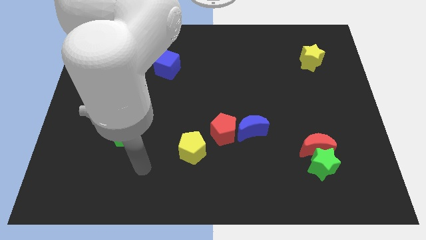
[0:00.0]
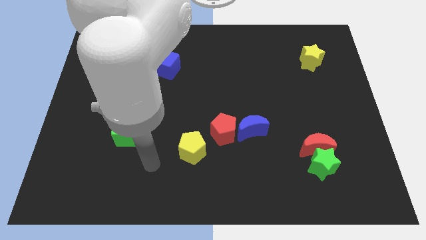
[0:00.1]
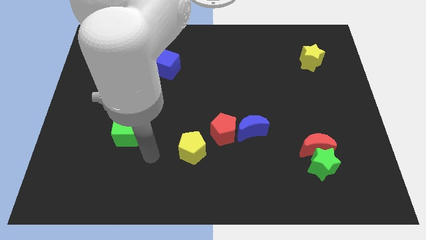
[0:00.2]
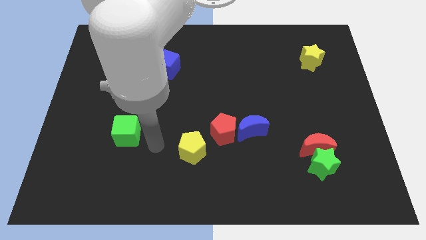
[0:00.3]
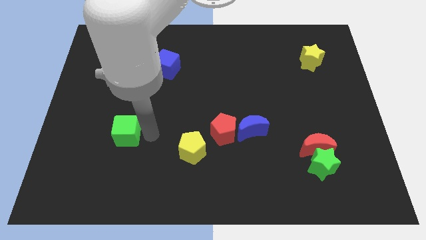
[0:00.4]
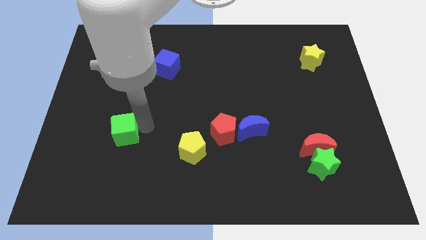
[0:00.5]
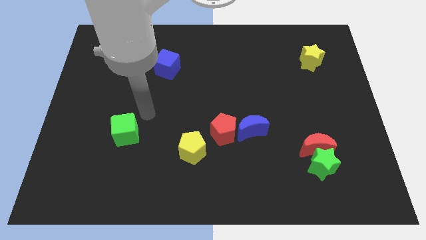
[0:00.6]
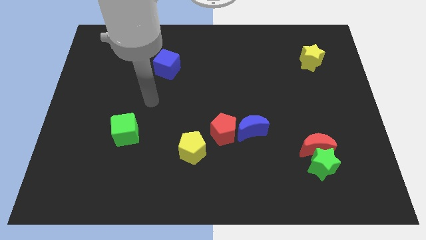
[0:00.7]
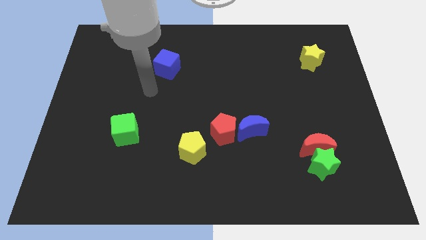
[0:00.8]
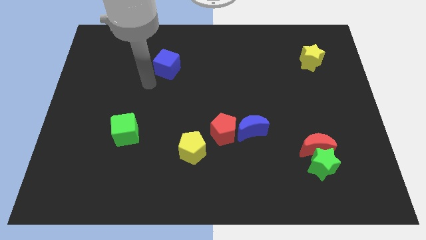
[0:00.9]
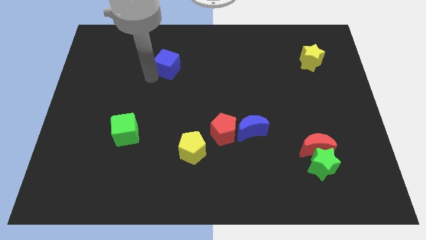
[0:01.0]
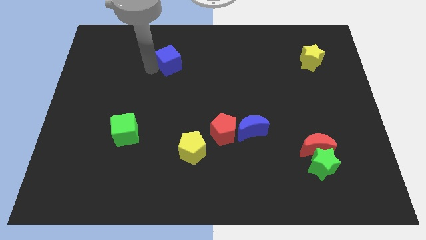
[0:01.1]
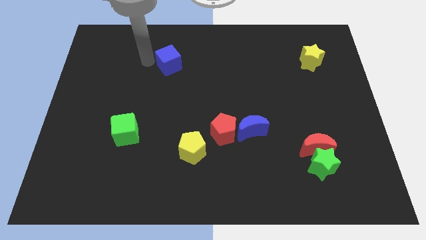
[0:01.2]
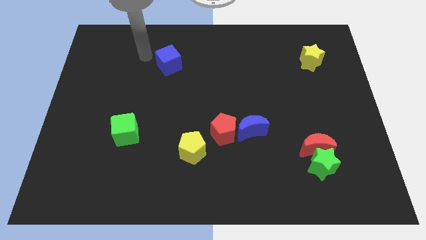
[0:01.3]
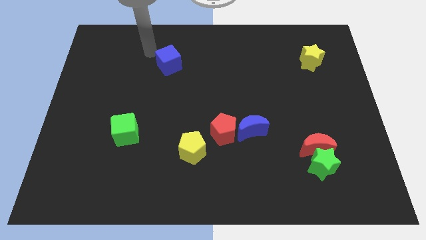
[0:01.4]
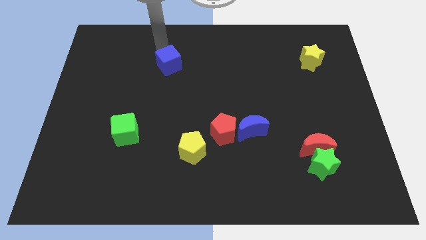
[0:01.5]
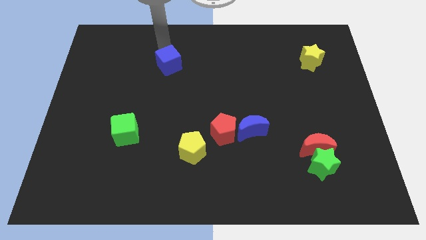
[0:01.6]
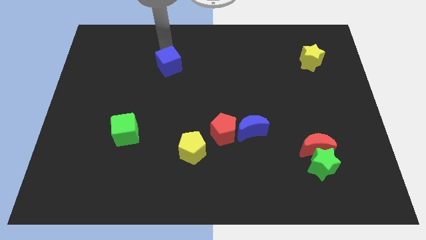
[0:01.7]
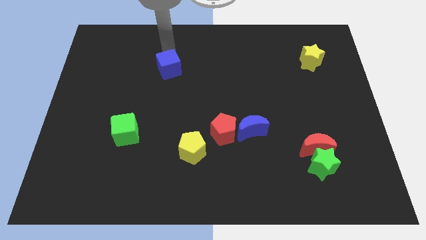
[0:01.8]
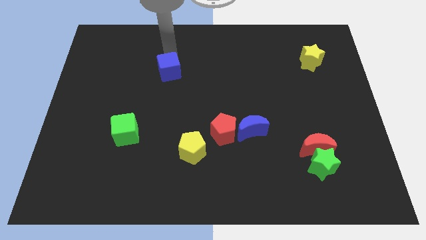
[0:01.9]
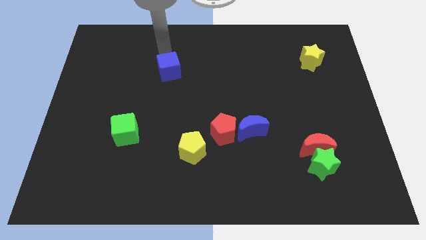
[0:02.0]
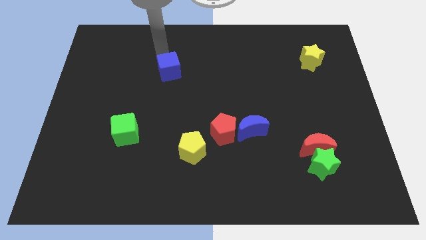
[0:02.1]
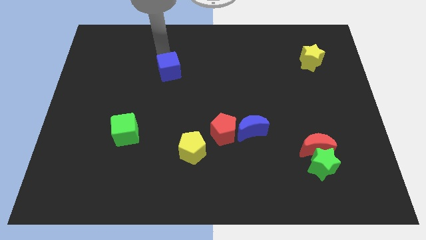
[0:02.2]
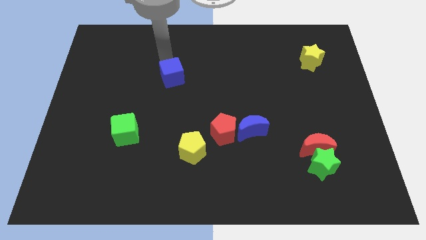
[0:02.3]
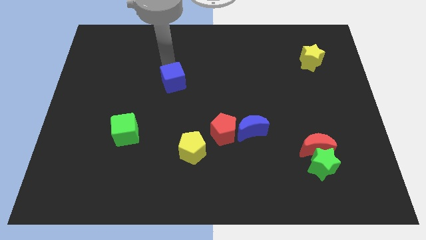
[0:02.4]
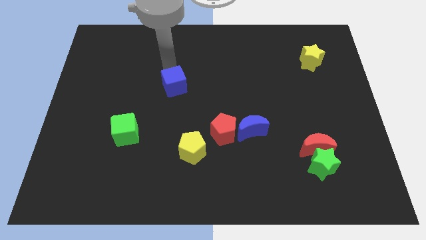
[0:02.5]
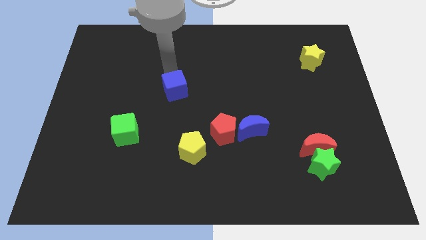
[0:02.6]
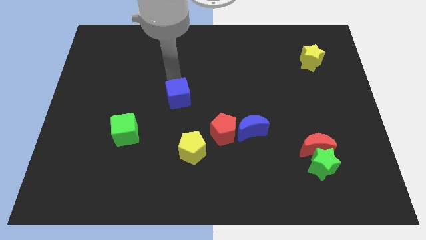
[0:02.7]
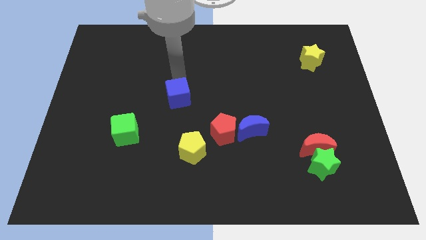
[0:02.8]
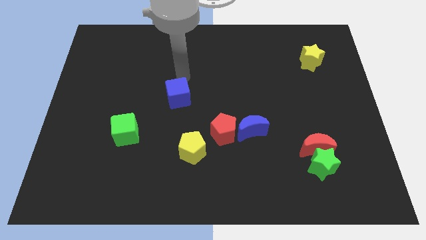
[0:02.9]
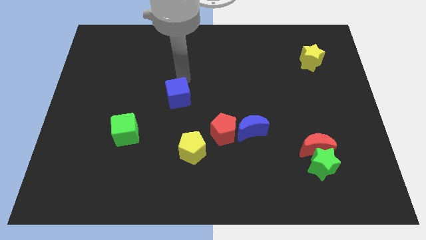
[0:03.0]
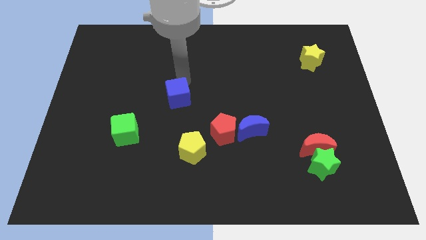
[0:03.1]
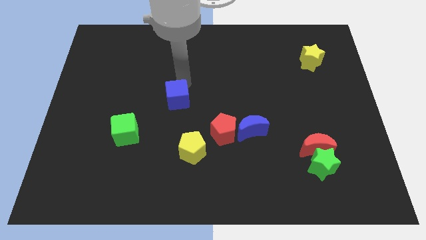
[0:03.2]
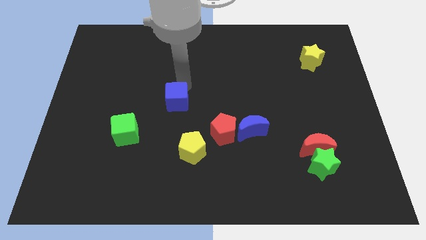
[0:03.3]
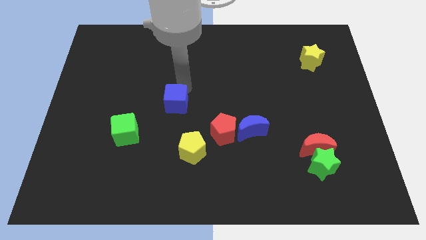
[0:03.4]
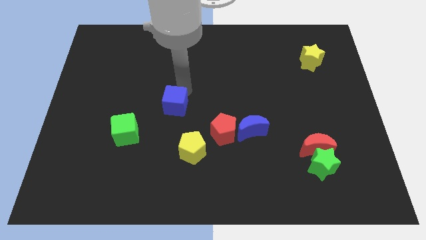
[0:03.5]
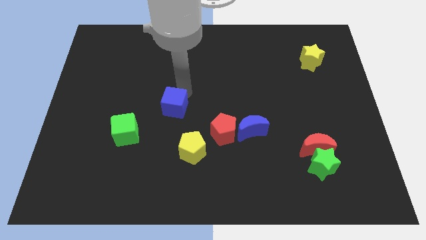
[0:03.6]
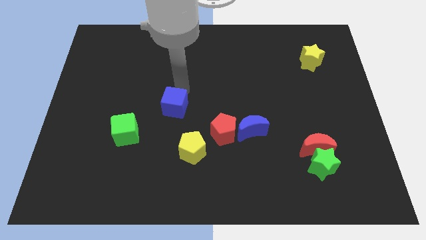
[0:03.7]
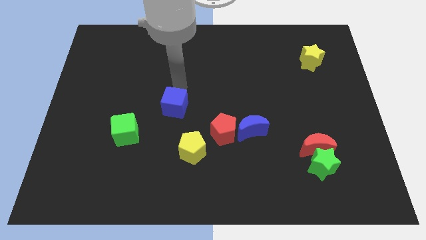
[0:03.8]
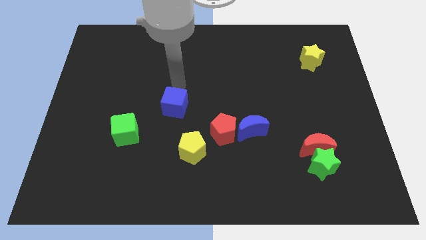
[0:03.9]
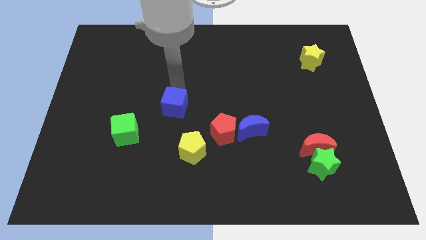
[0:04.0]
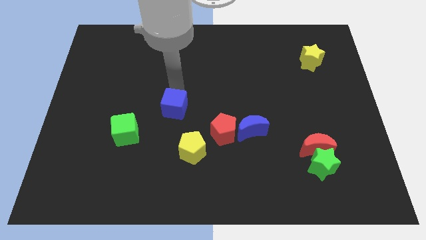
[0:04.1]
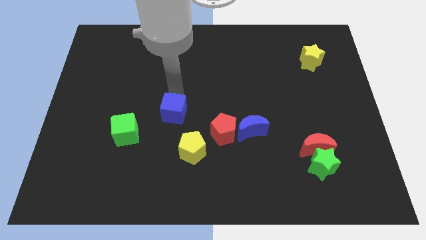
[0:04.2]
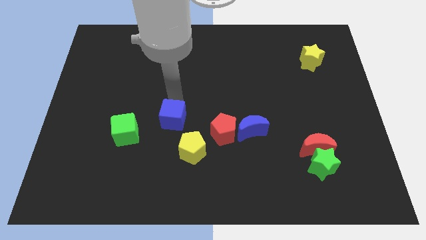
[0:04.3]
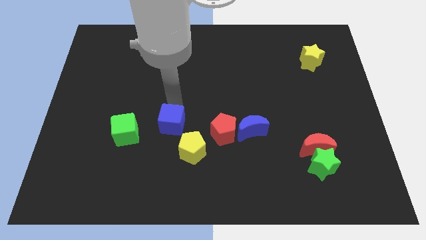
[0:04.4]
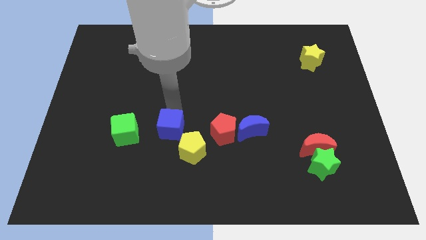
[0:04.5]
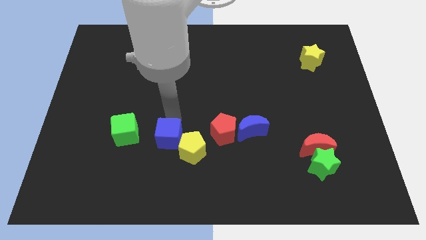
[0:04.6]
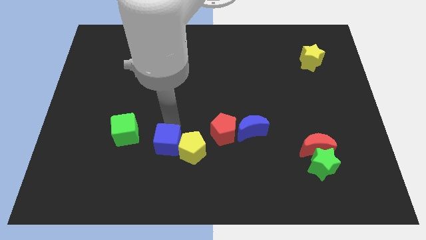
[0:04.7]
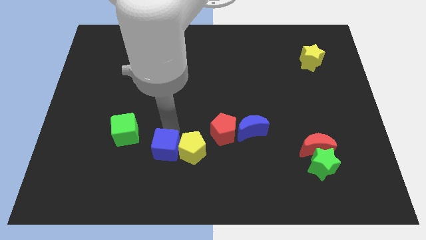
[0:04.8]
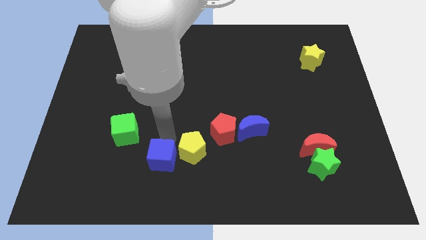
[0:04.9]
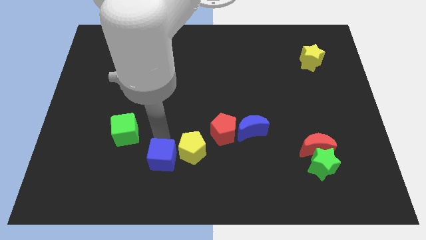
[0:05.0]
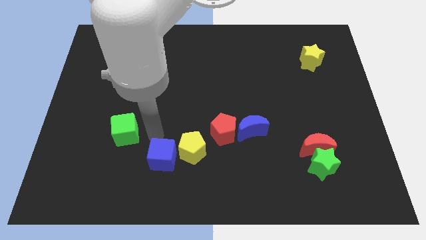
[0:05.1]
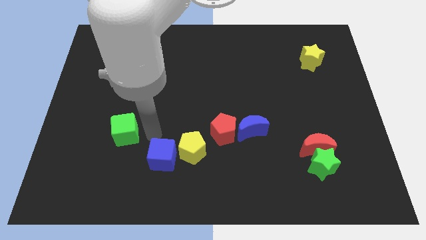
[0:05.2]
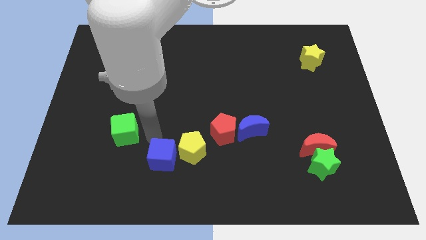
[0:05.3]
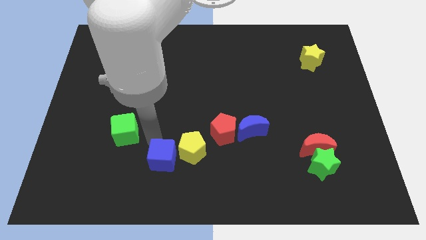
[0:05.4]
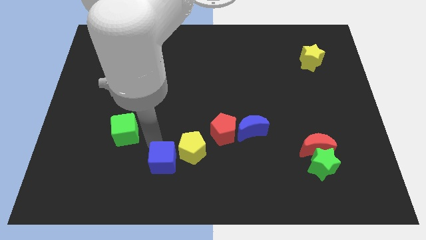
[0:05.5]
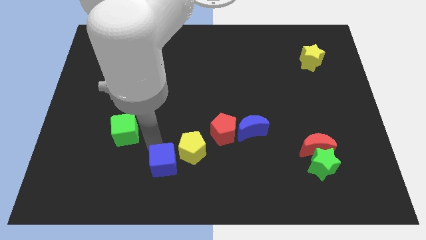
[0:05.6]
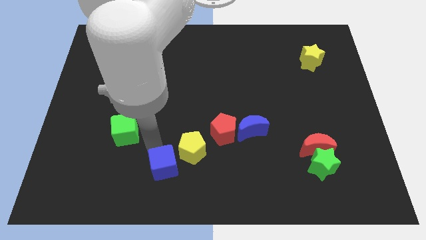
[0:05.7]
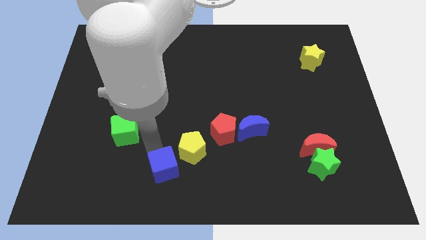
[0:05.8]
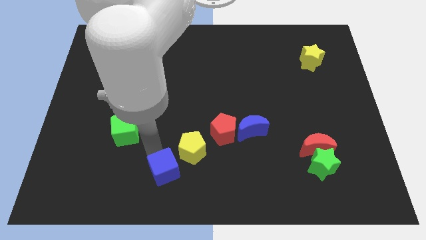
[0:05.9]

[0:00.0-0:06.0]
push the blue cube to the bottom side
